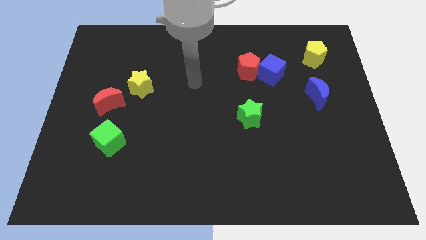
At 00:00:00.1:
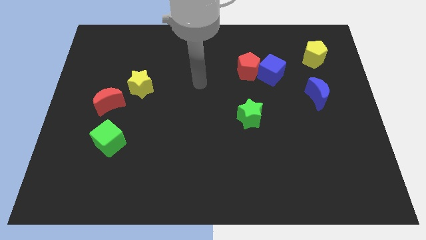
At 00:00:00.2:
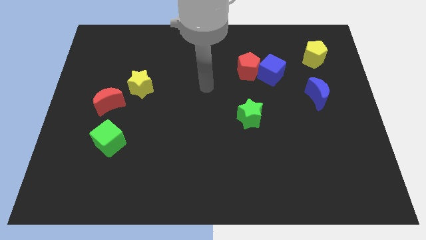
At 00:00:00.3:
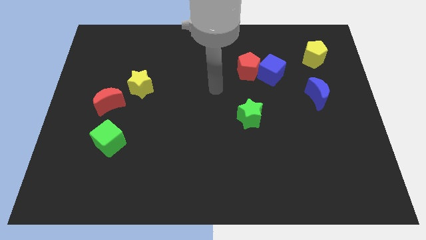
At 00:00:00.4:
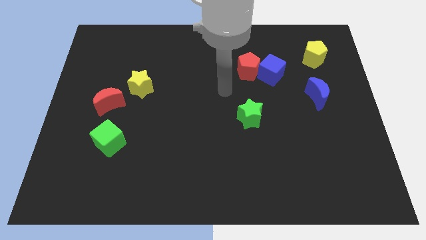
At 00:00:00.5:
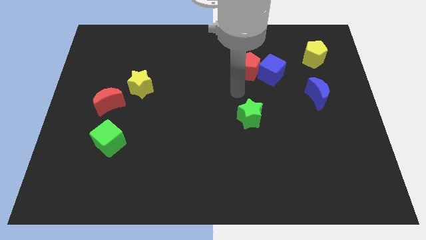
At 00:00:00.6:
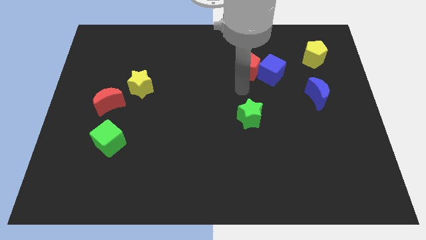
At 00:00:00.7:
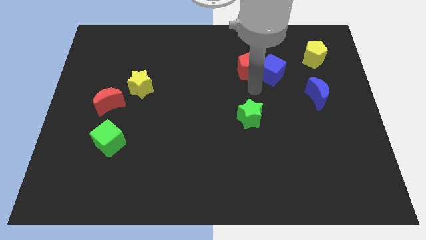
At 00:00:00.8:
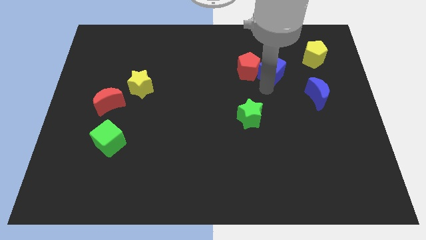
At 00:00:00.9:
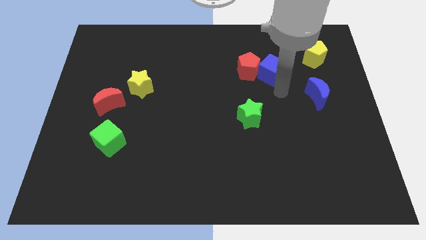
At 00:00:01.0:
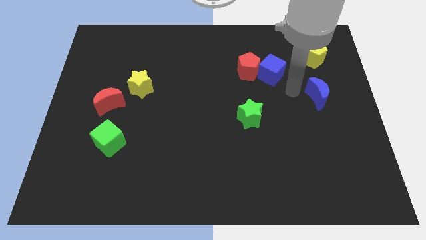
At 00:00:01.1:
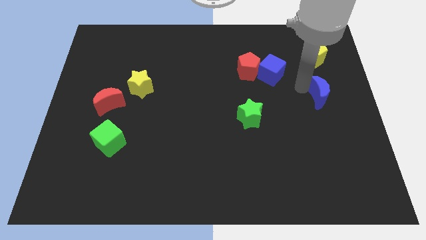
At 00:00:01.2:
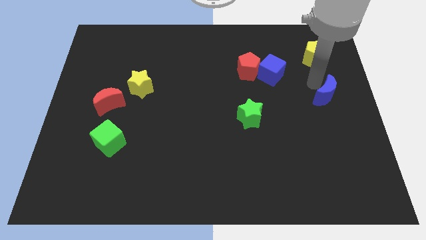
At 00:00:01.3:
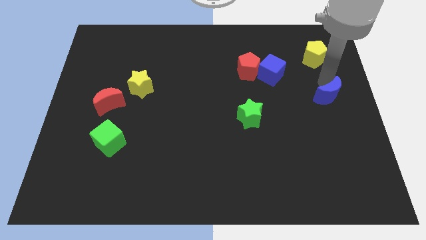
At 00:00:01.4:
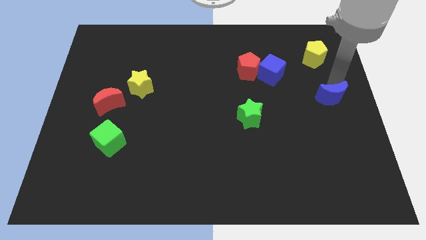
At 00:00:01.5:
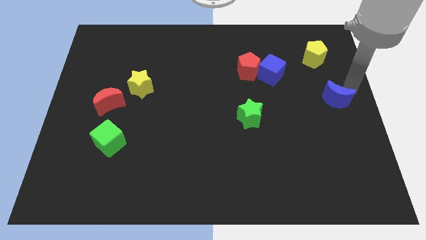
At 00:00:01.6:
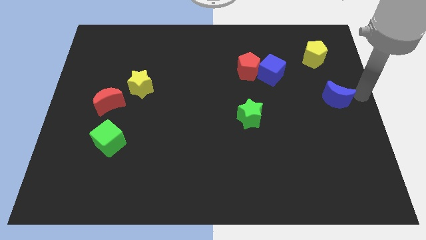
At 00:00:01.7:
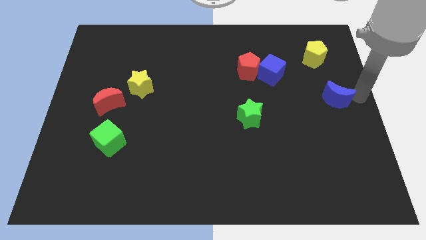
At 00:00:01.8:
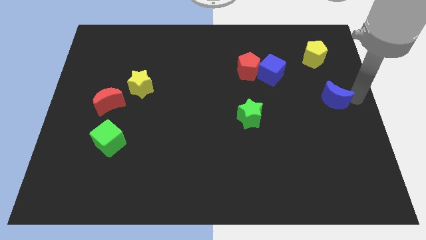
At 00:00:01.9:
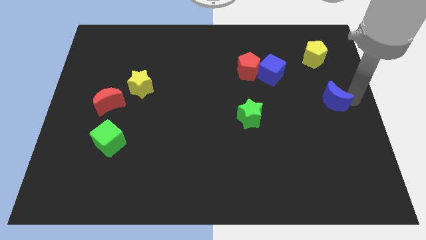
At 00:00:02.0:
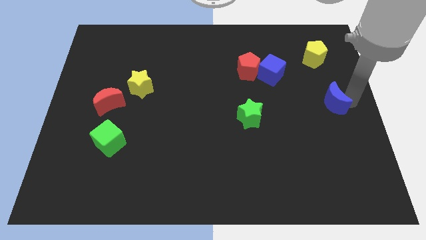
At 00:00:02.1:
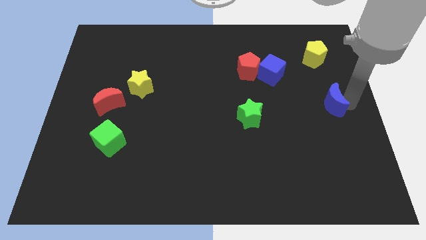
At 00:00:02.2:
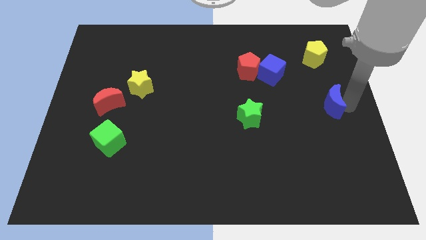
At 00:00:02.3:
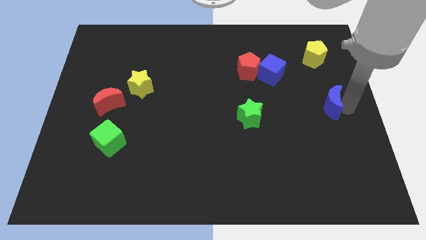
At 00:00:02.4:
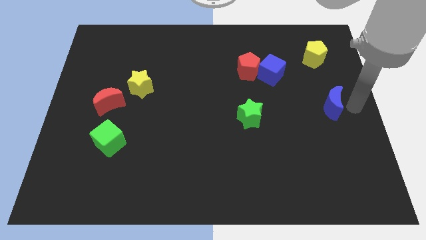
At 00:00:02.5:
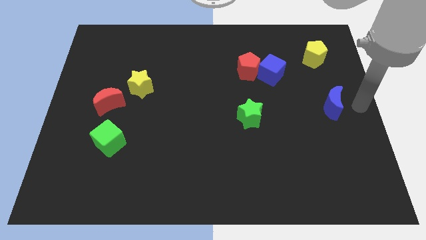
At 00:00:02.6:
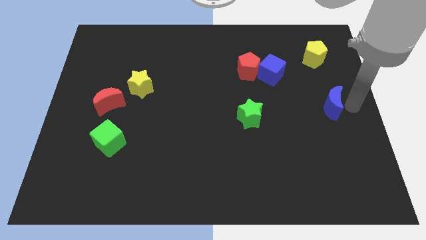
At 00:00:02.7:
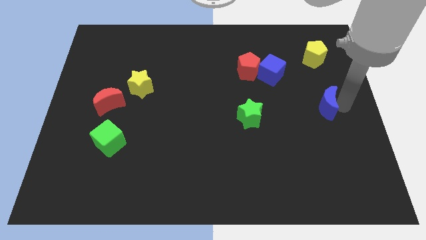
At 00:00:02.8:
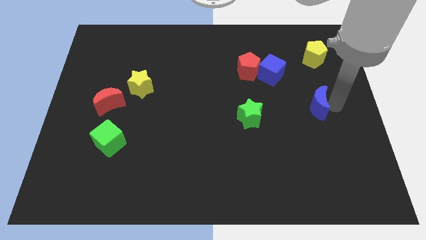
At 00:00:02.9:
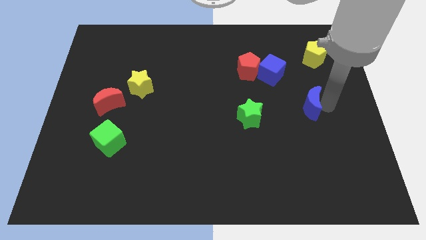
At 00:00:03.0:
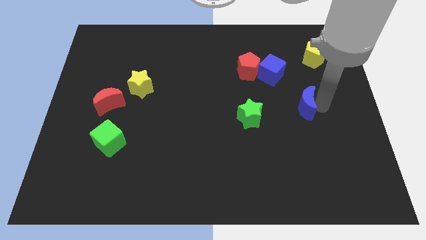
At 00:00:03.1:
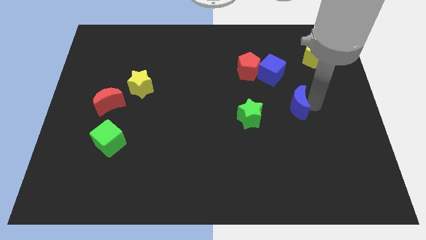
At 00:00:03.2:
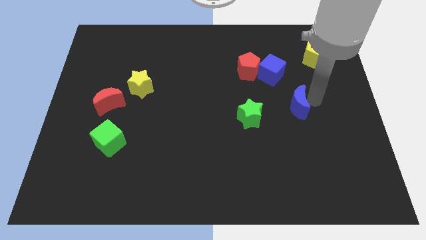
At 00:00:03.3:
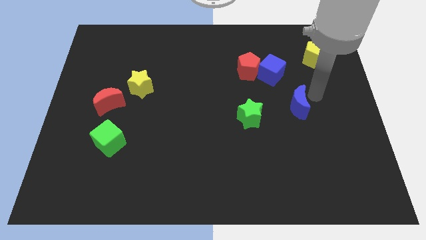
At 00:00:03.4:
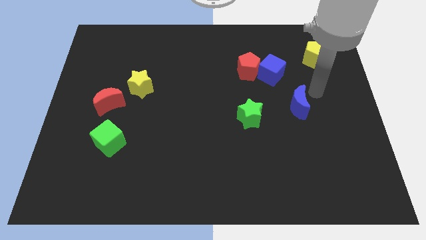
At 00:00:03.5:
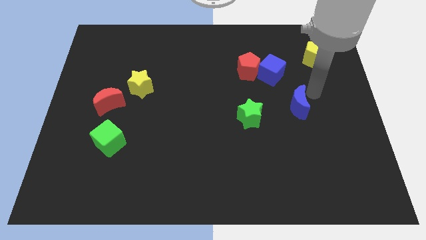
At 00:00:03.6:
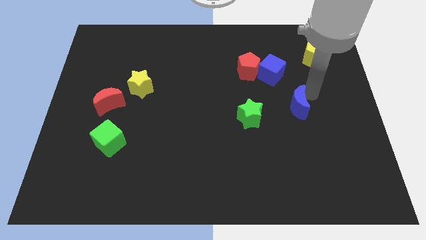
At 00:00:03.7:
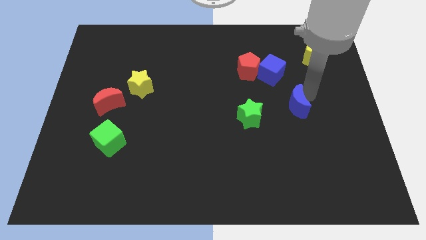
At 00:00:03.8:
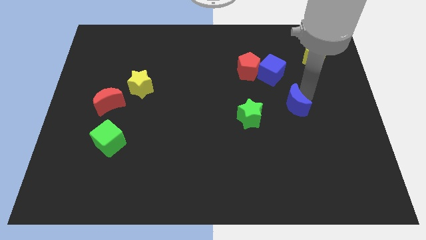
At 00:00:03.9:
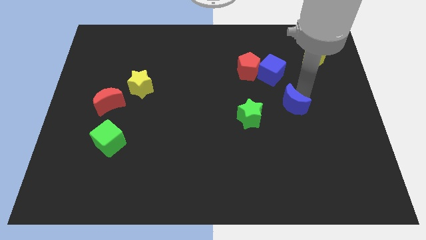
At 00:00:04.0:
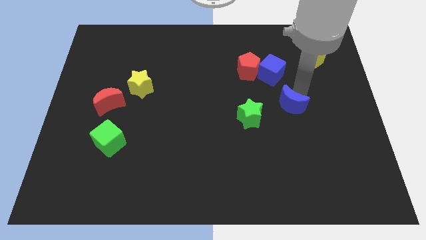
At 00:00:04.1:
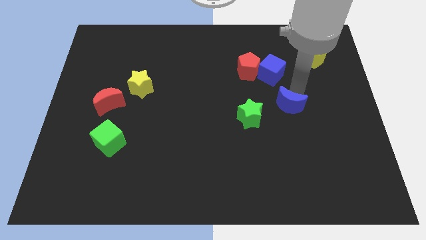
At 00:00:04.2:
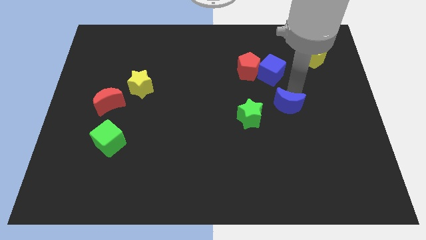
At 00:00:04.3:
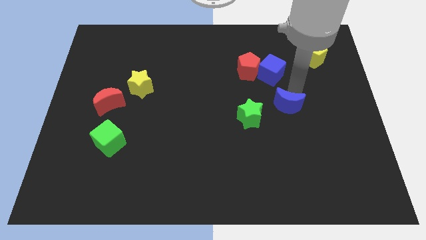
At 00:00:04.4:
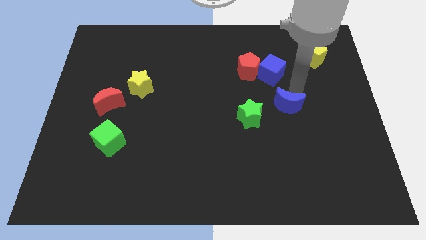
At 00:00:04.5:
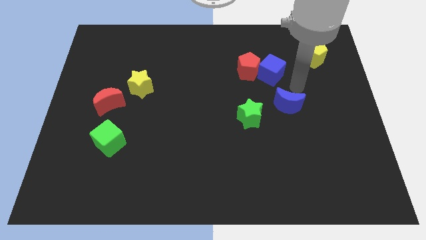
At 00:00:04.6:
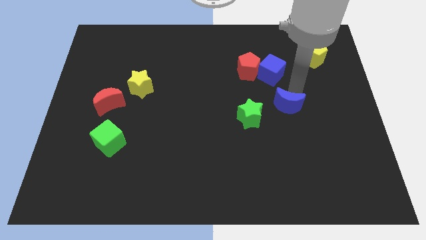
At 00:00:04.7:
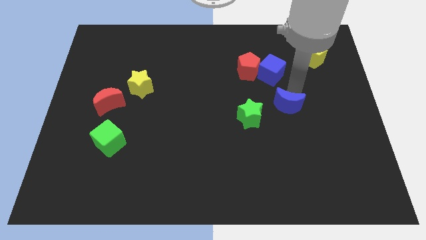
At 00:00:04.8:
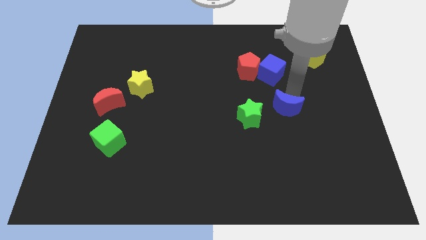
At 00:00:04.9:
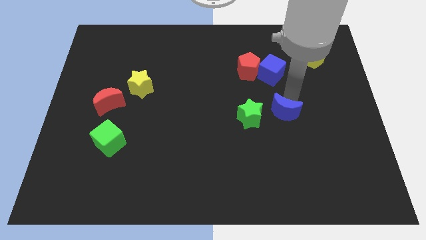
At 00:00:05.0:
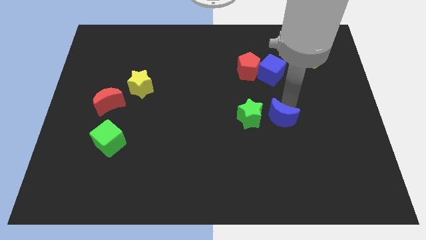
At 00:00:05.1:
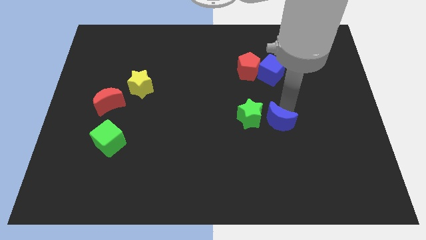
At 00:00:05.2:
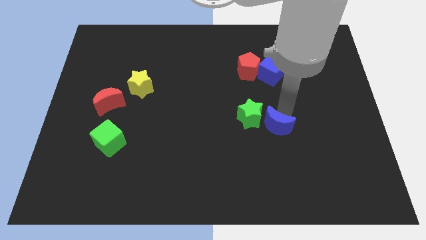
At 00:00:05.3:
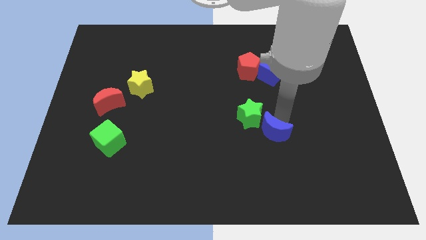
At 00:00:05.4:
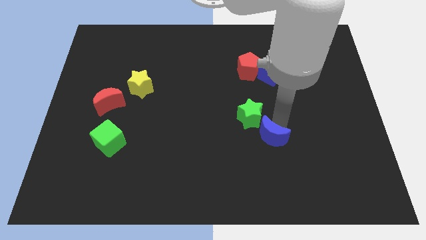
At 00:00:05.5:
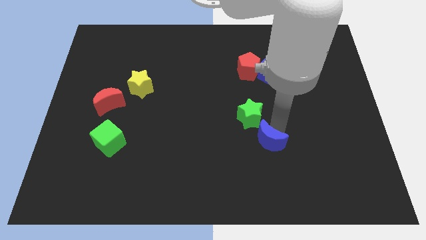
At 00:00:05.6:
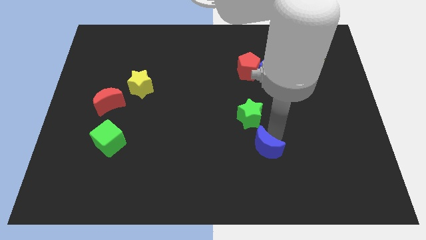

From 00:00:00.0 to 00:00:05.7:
push the blue moon down and then left

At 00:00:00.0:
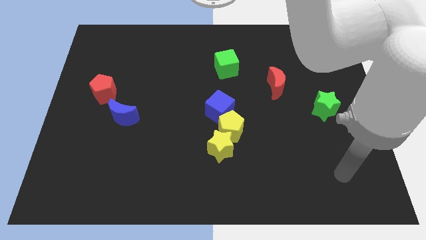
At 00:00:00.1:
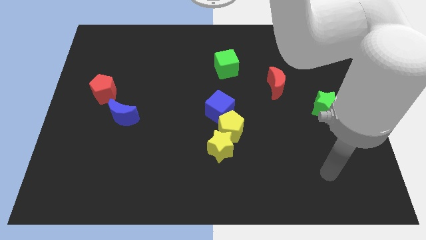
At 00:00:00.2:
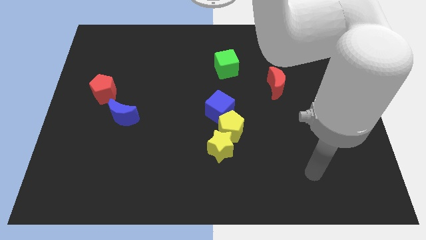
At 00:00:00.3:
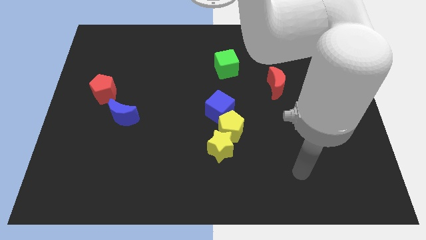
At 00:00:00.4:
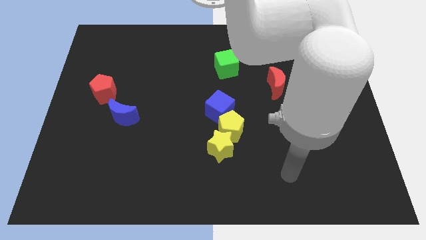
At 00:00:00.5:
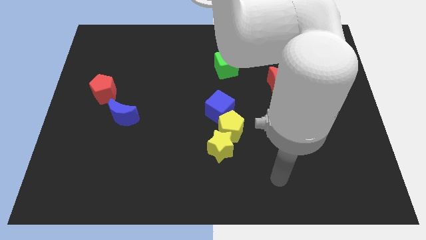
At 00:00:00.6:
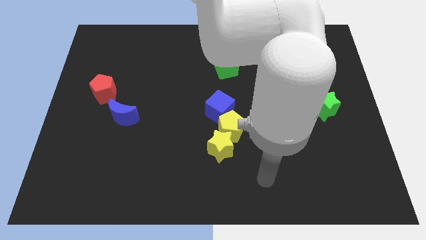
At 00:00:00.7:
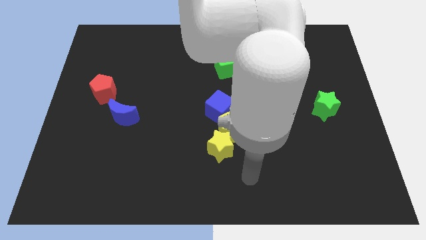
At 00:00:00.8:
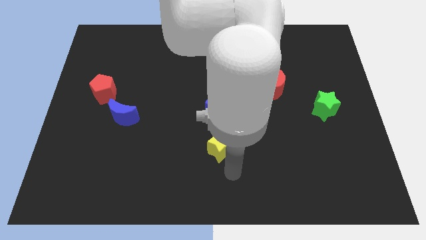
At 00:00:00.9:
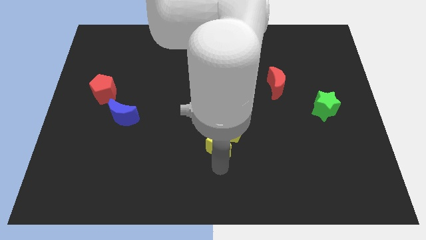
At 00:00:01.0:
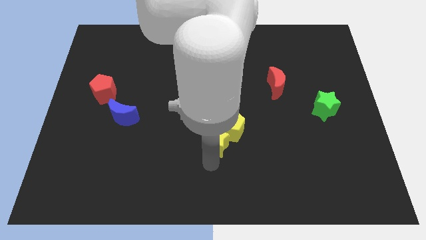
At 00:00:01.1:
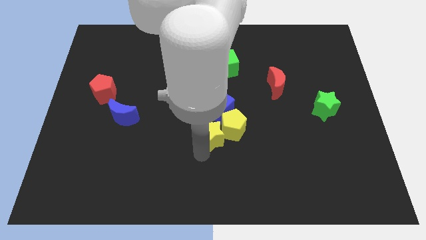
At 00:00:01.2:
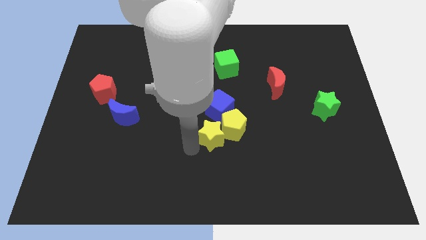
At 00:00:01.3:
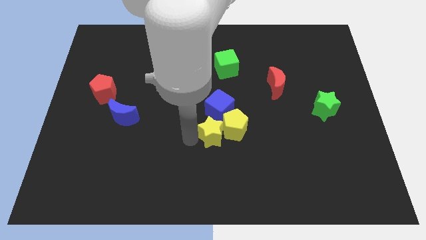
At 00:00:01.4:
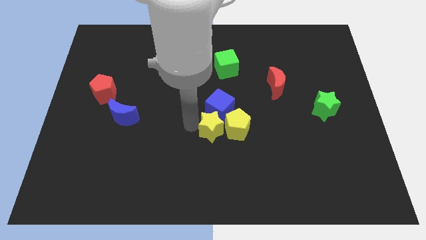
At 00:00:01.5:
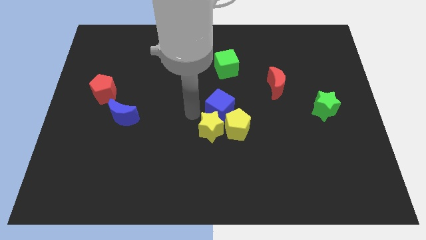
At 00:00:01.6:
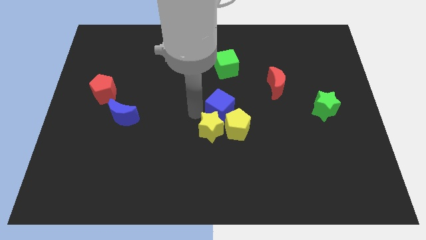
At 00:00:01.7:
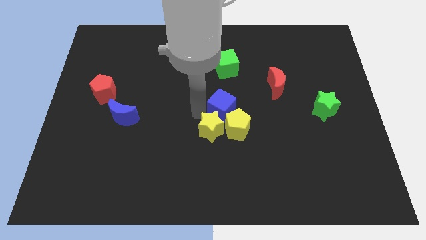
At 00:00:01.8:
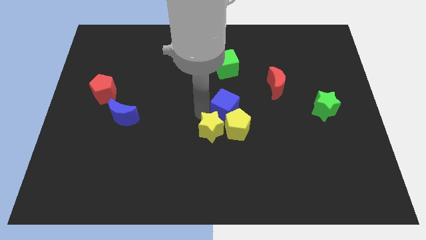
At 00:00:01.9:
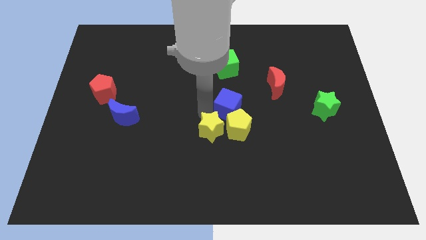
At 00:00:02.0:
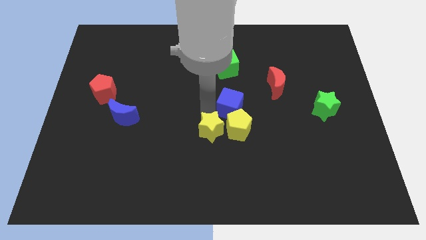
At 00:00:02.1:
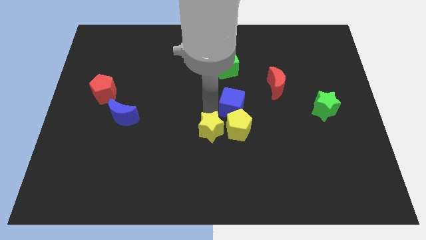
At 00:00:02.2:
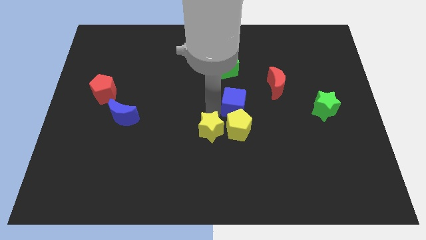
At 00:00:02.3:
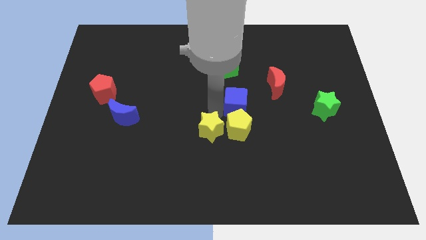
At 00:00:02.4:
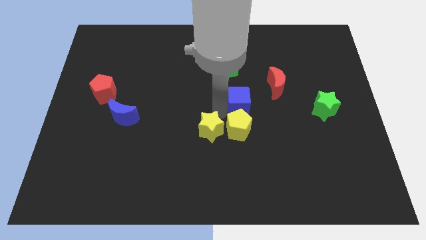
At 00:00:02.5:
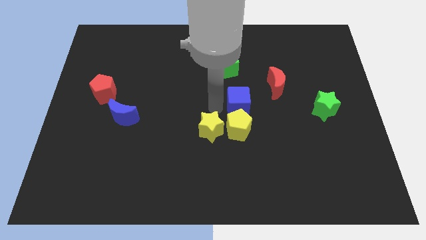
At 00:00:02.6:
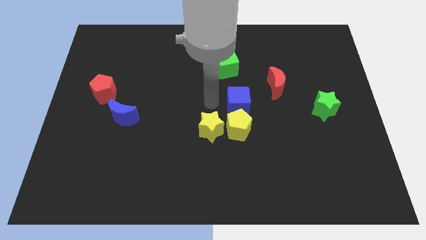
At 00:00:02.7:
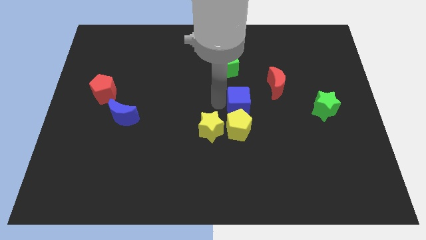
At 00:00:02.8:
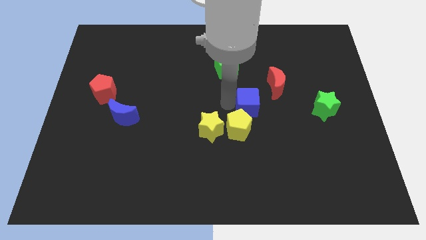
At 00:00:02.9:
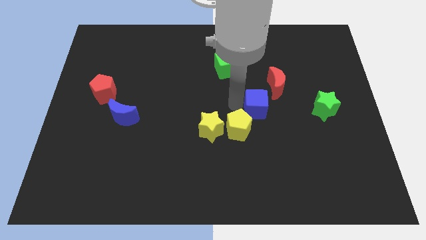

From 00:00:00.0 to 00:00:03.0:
push the blue cube a little bit right
